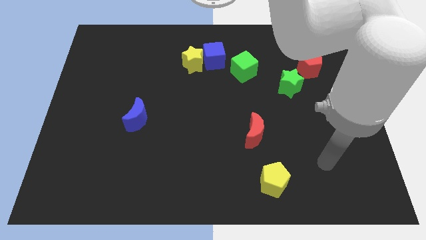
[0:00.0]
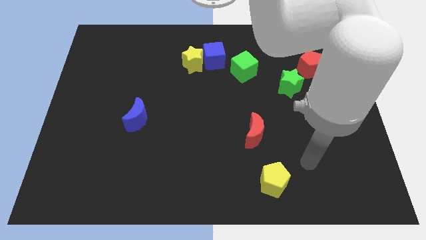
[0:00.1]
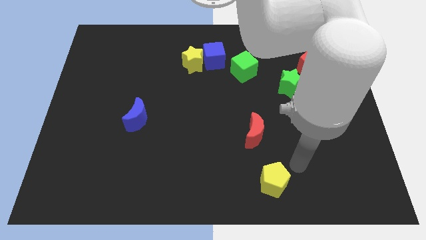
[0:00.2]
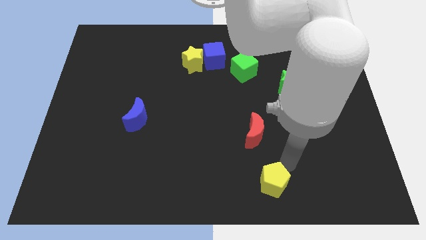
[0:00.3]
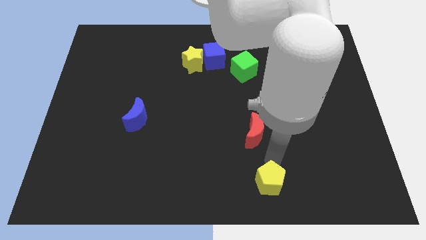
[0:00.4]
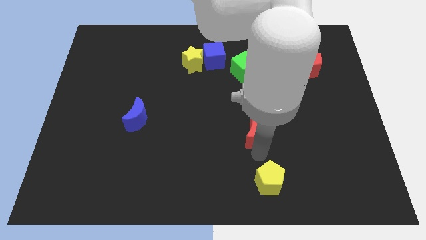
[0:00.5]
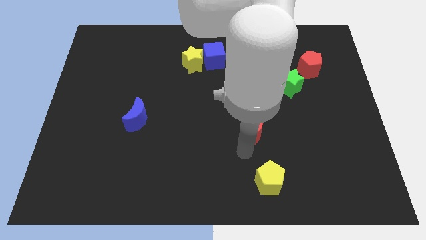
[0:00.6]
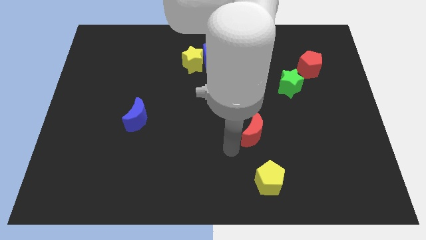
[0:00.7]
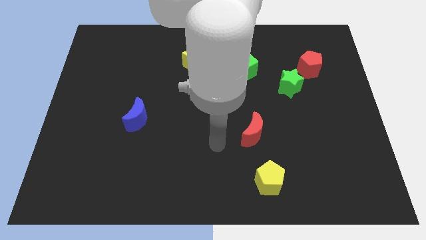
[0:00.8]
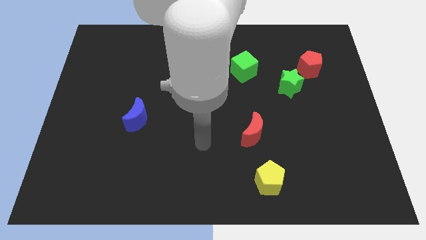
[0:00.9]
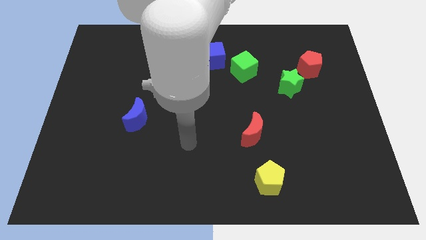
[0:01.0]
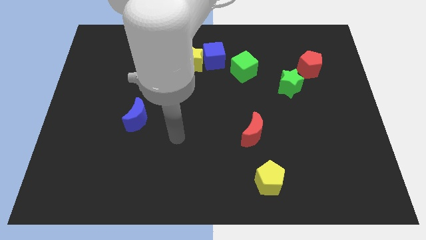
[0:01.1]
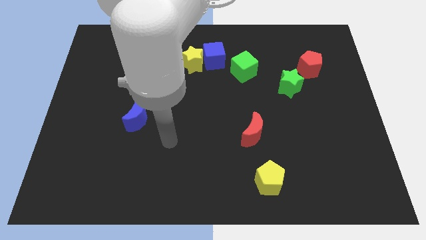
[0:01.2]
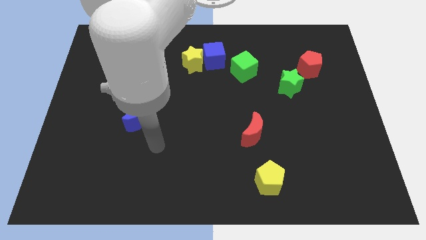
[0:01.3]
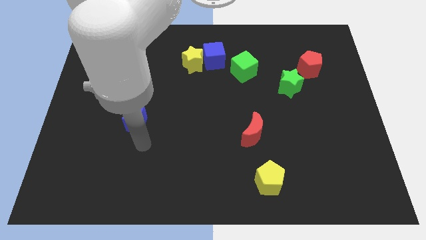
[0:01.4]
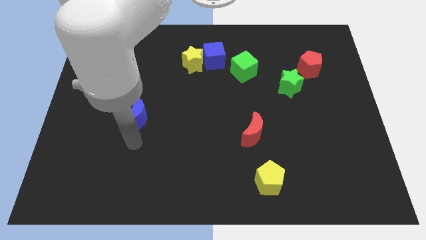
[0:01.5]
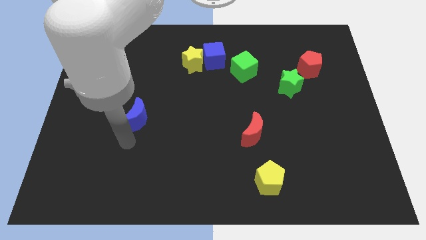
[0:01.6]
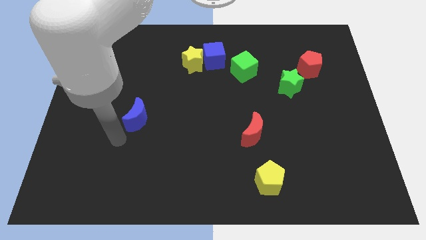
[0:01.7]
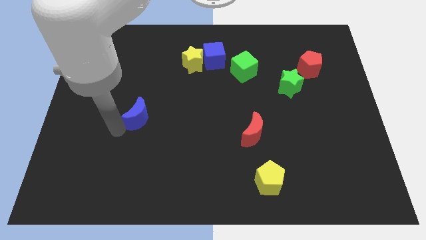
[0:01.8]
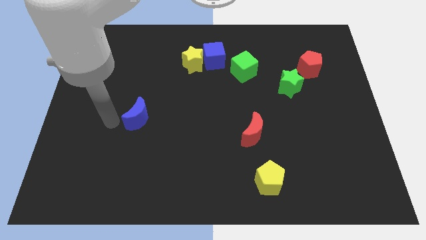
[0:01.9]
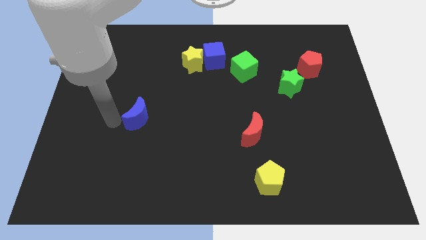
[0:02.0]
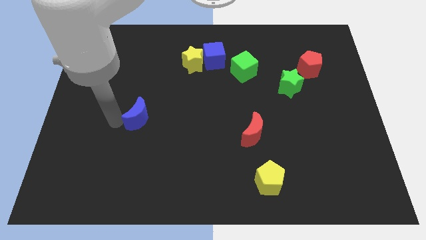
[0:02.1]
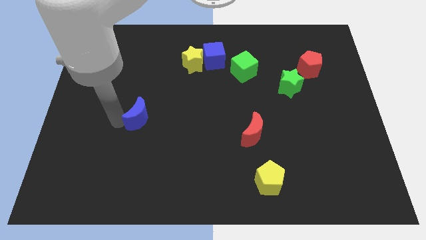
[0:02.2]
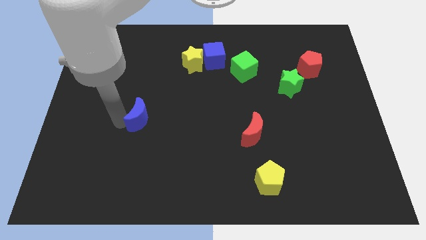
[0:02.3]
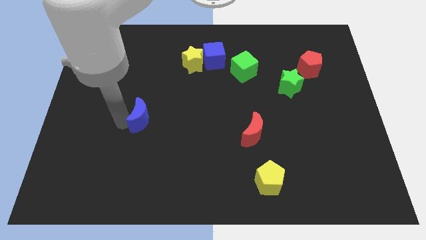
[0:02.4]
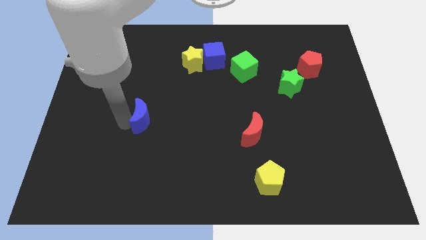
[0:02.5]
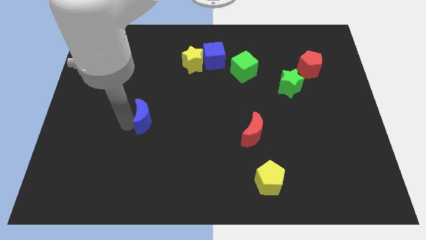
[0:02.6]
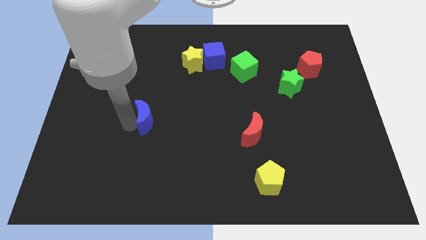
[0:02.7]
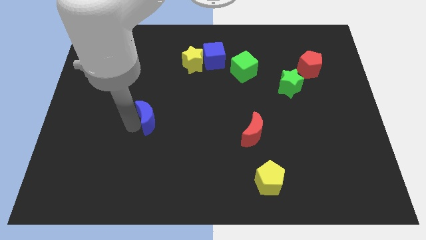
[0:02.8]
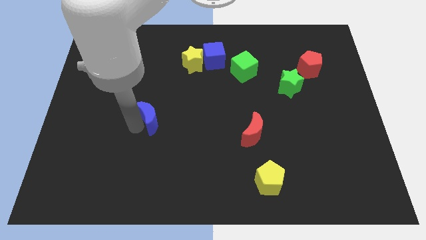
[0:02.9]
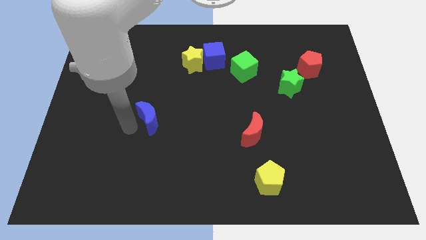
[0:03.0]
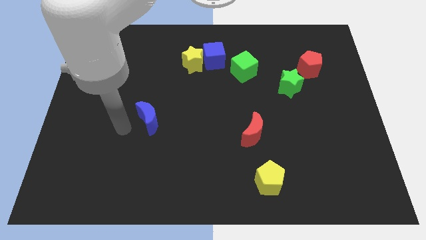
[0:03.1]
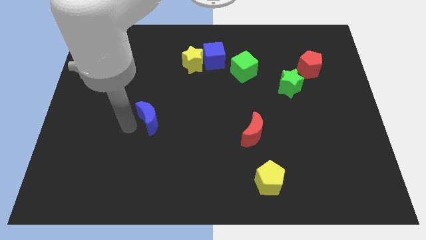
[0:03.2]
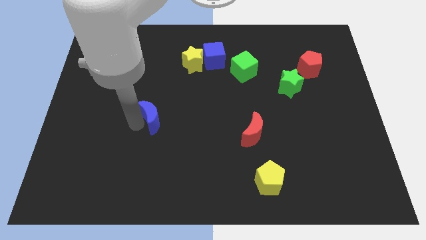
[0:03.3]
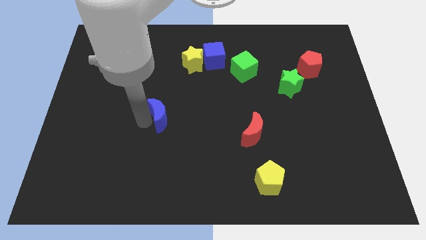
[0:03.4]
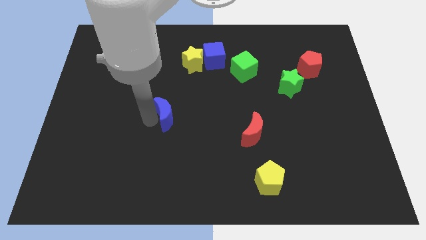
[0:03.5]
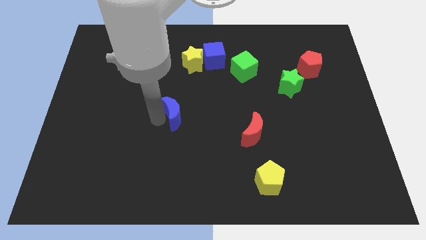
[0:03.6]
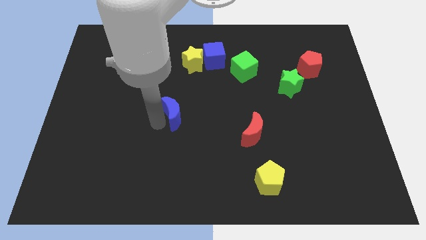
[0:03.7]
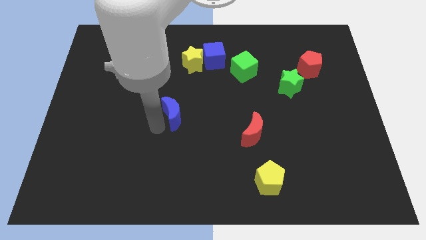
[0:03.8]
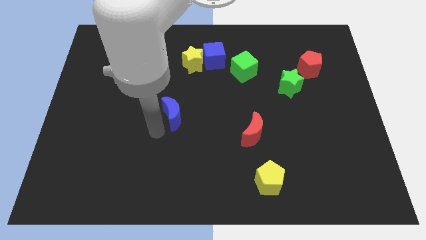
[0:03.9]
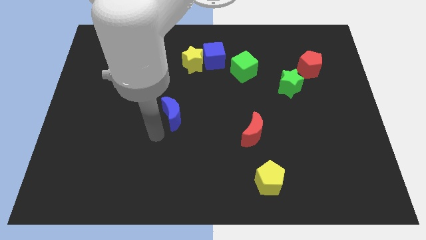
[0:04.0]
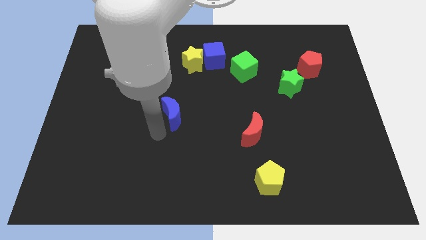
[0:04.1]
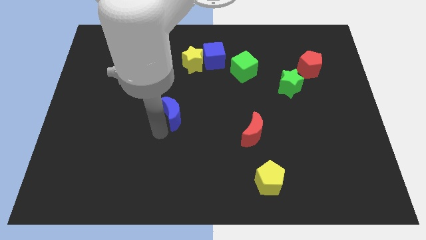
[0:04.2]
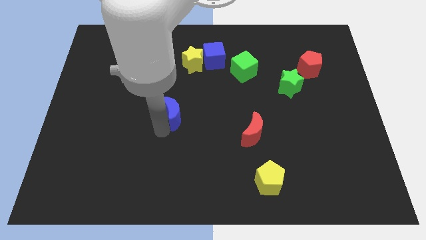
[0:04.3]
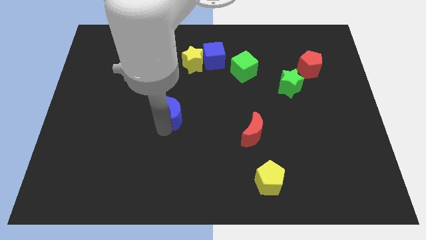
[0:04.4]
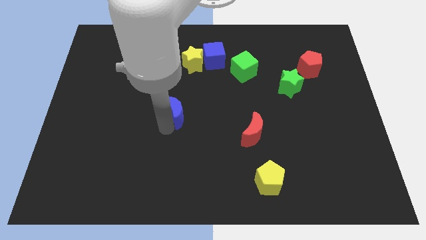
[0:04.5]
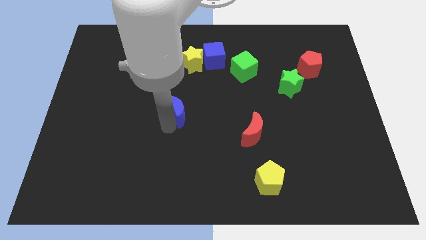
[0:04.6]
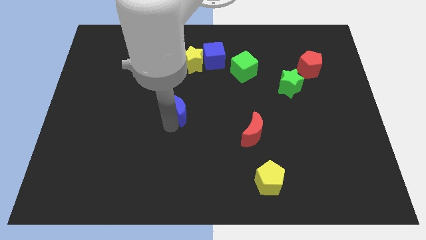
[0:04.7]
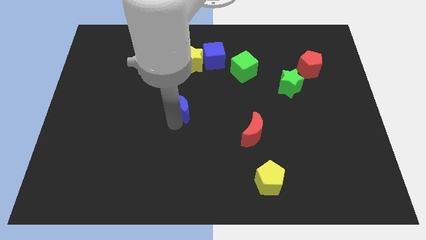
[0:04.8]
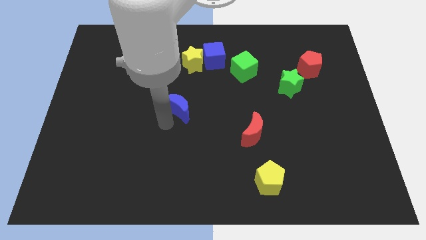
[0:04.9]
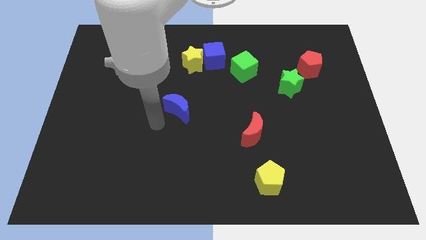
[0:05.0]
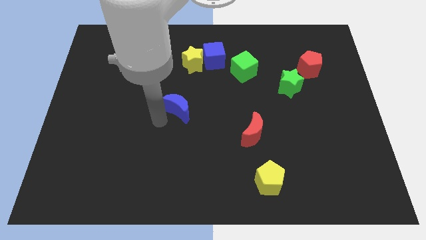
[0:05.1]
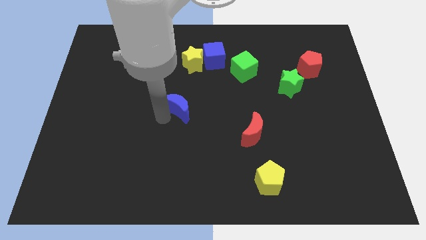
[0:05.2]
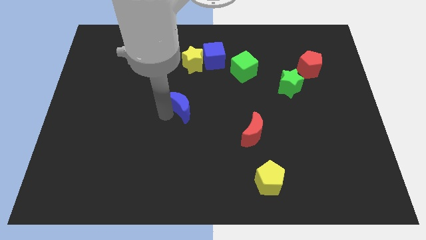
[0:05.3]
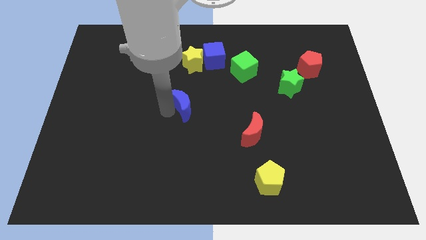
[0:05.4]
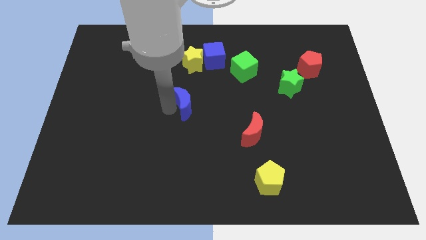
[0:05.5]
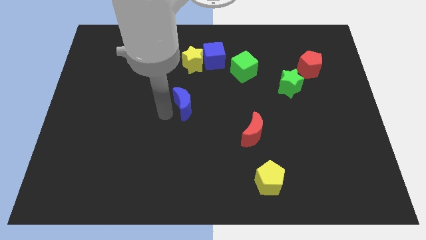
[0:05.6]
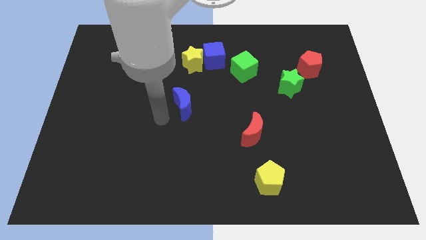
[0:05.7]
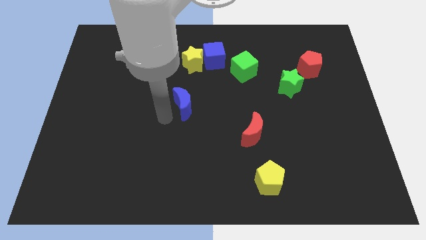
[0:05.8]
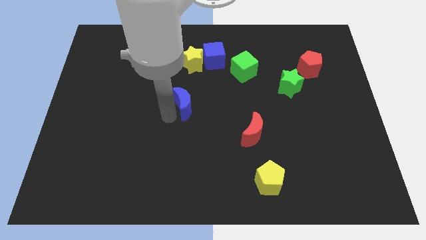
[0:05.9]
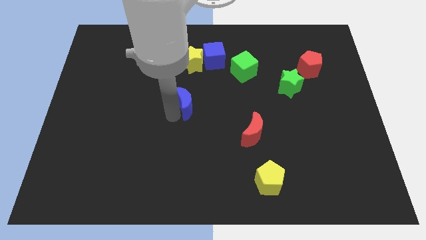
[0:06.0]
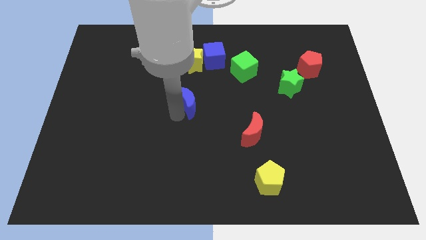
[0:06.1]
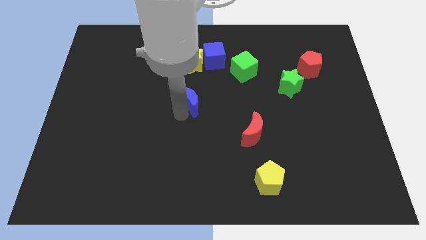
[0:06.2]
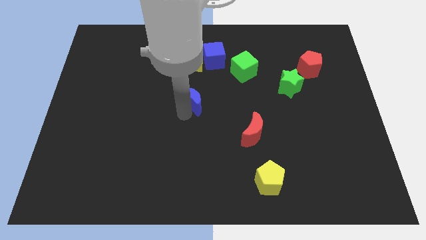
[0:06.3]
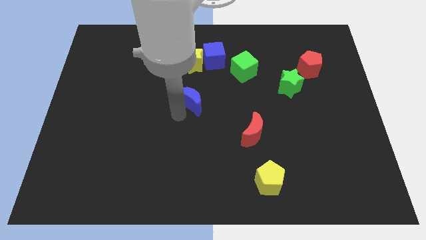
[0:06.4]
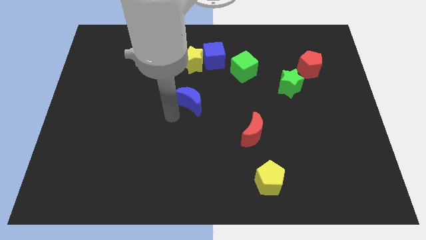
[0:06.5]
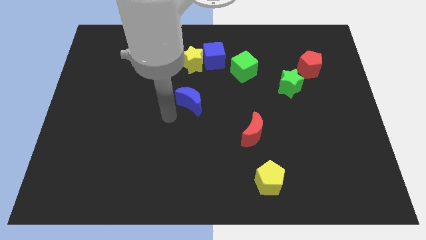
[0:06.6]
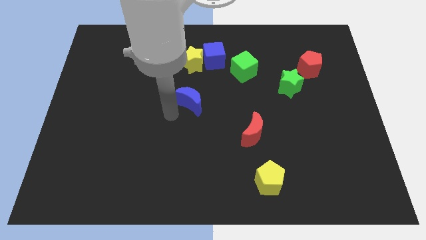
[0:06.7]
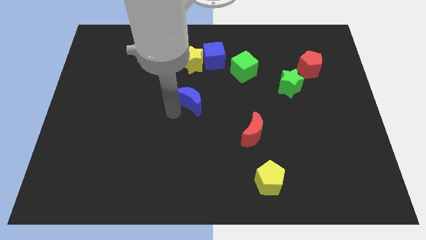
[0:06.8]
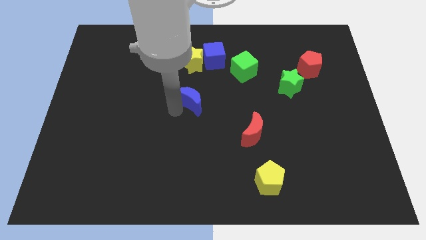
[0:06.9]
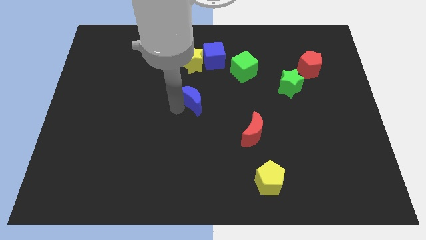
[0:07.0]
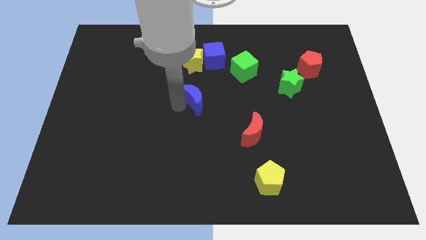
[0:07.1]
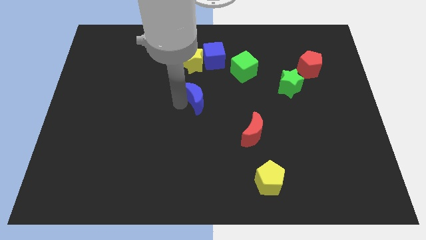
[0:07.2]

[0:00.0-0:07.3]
put the blue moon below the blue cube

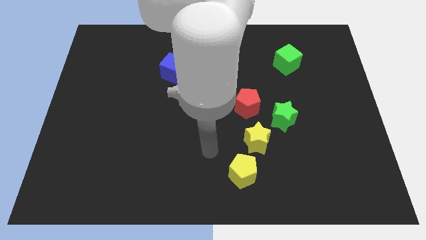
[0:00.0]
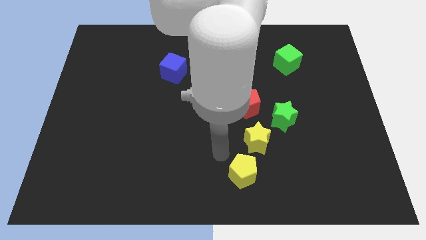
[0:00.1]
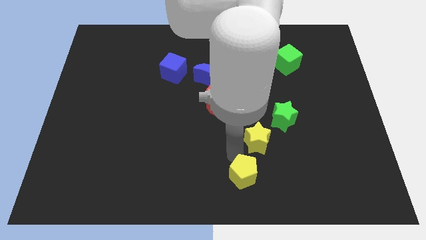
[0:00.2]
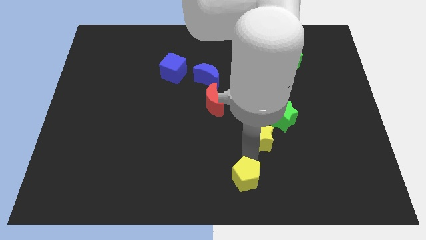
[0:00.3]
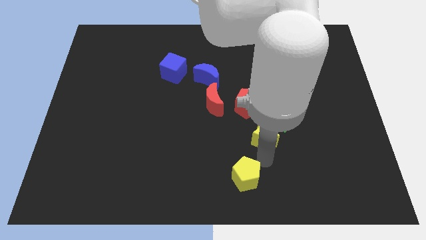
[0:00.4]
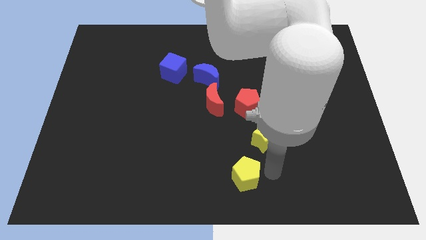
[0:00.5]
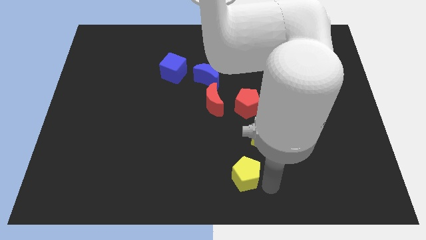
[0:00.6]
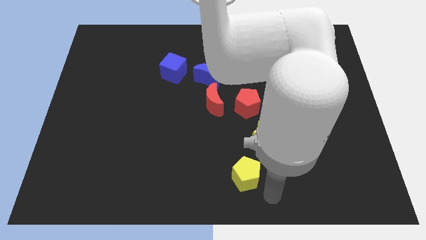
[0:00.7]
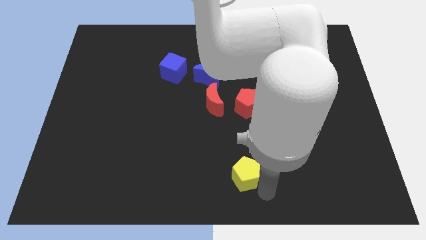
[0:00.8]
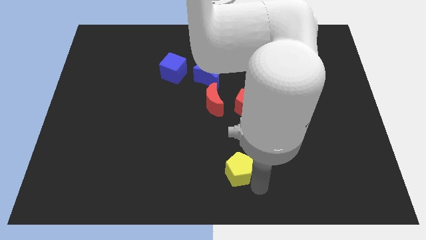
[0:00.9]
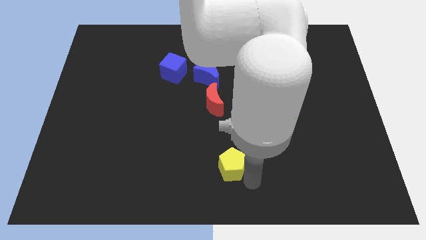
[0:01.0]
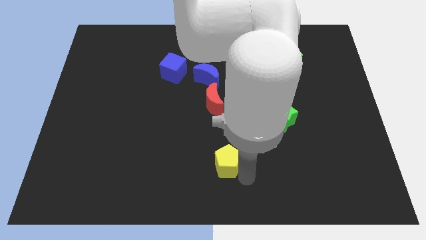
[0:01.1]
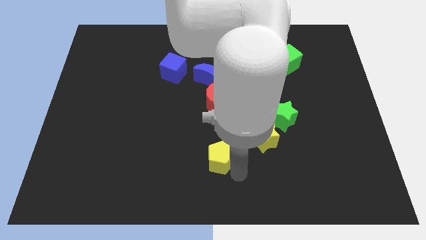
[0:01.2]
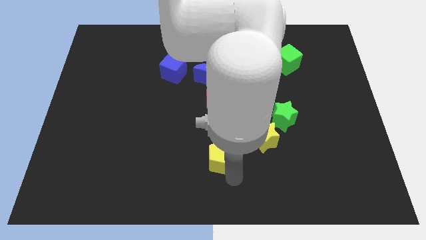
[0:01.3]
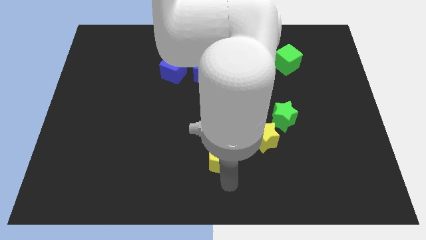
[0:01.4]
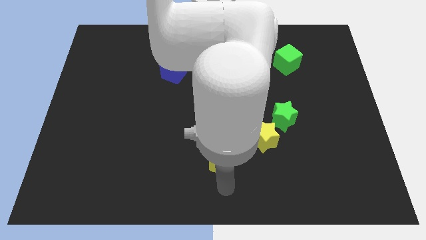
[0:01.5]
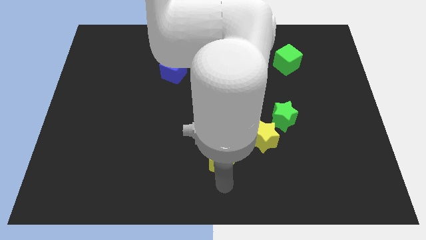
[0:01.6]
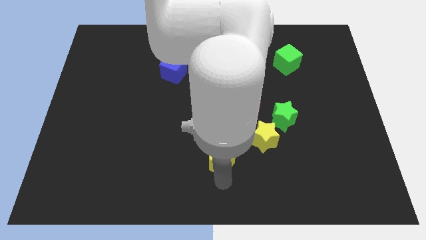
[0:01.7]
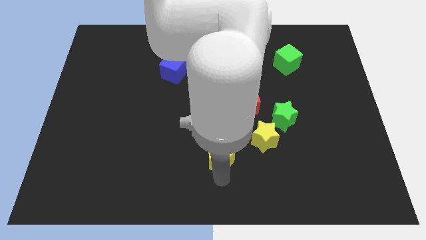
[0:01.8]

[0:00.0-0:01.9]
put the yellow pentagon just left of the yellow star
